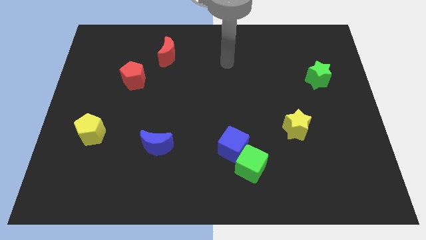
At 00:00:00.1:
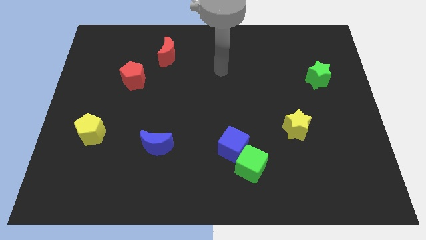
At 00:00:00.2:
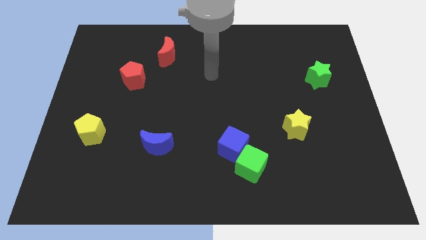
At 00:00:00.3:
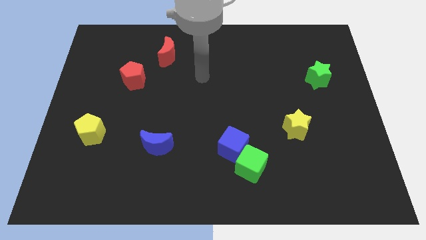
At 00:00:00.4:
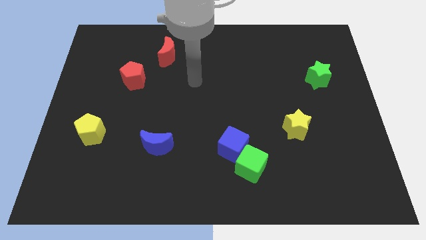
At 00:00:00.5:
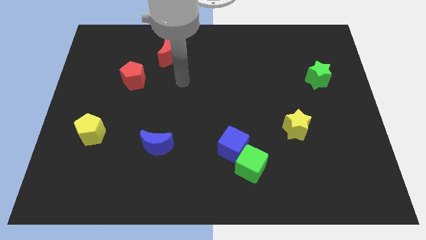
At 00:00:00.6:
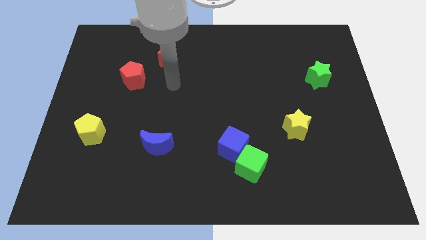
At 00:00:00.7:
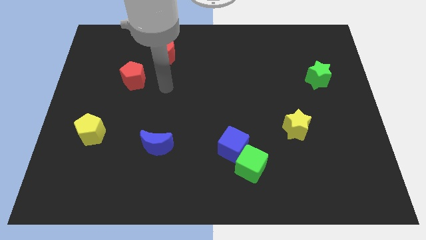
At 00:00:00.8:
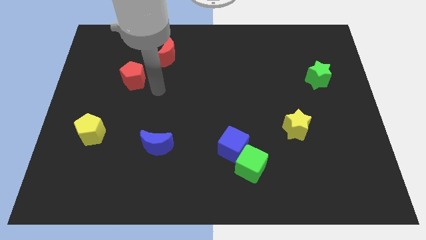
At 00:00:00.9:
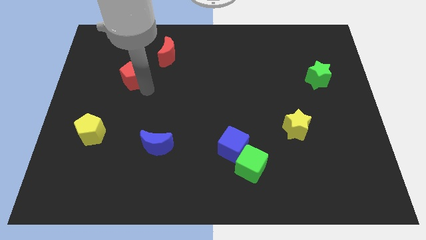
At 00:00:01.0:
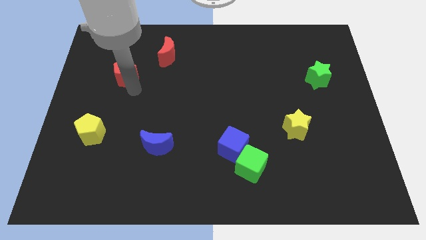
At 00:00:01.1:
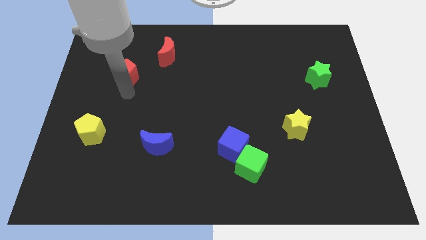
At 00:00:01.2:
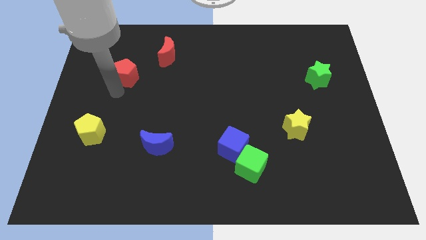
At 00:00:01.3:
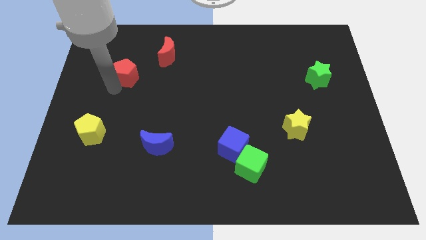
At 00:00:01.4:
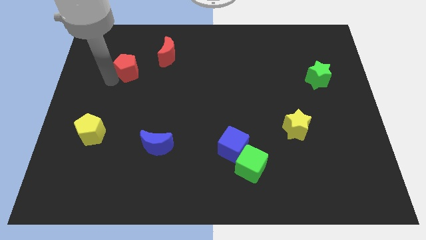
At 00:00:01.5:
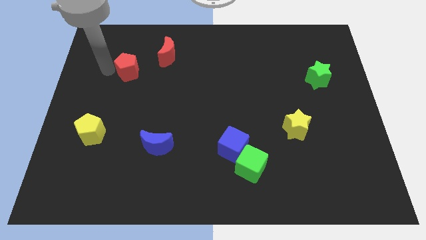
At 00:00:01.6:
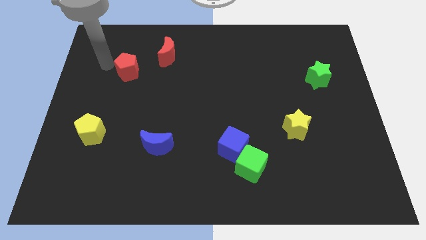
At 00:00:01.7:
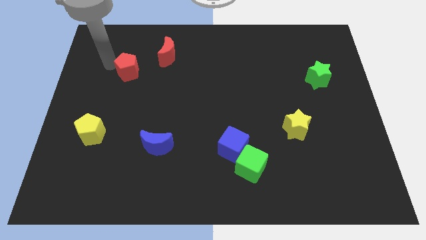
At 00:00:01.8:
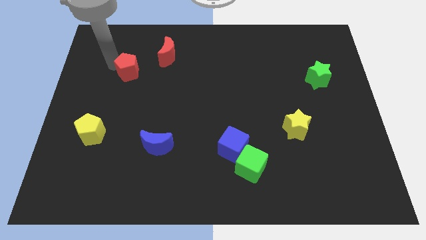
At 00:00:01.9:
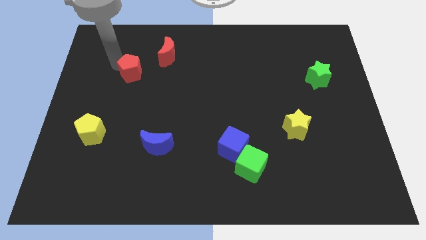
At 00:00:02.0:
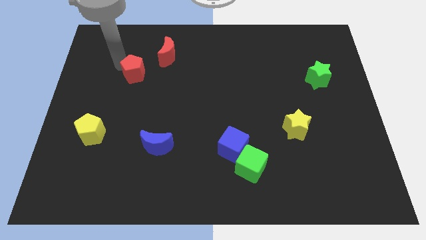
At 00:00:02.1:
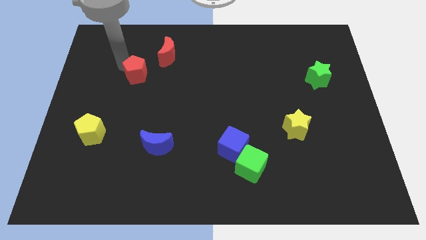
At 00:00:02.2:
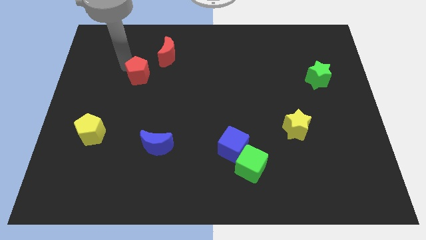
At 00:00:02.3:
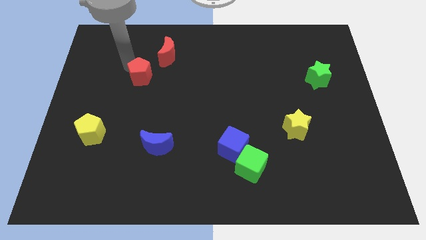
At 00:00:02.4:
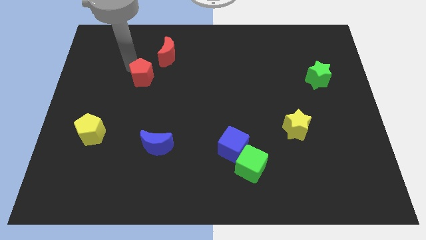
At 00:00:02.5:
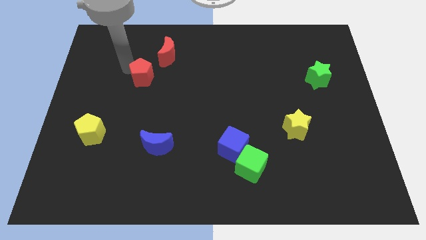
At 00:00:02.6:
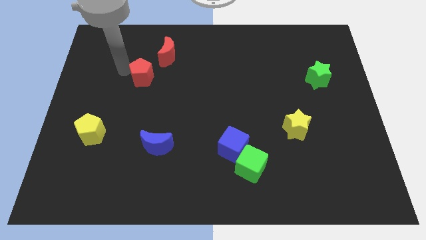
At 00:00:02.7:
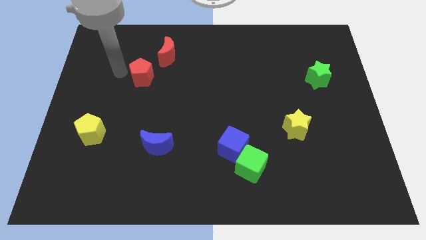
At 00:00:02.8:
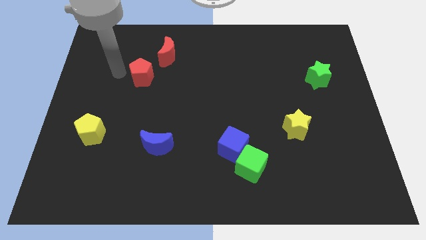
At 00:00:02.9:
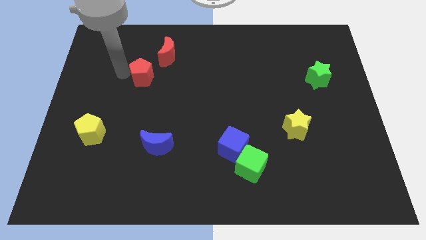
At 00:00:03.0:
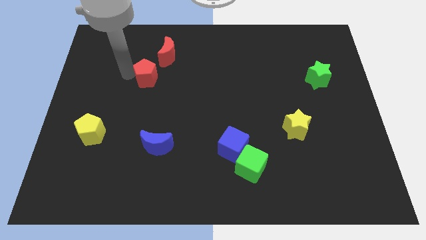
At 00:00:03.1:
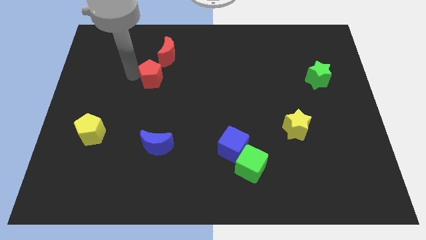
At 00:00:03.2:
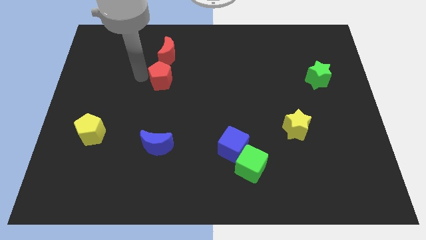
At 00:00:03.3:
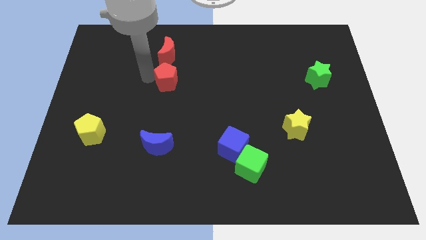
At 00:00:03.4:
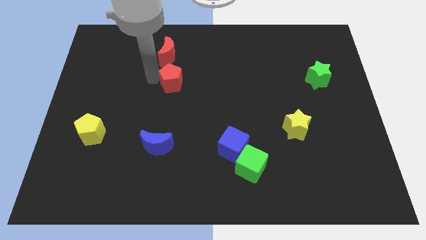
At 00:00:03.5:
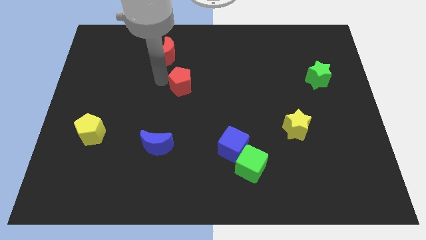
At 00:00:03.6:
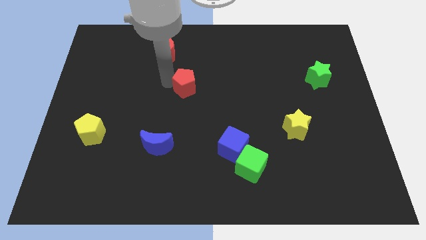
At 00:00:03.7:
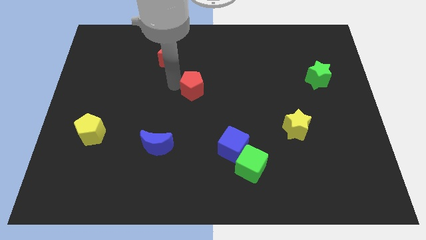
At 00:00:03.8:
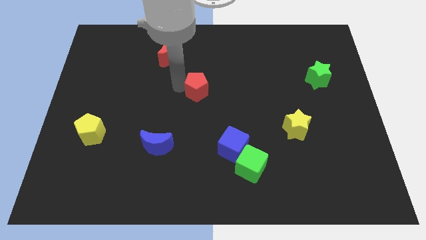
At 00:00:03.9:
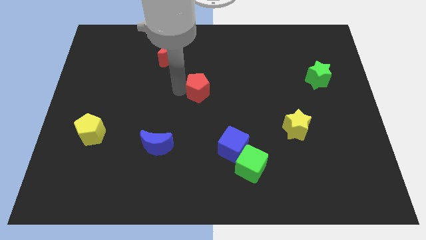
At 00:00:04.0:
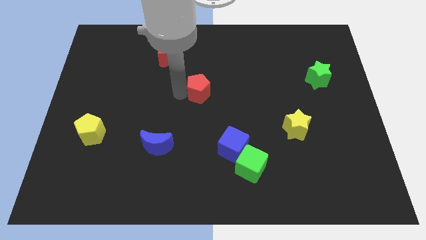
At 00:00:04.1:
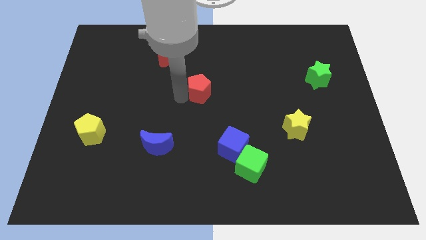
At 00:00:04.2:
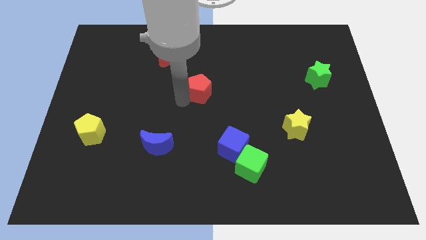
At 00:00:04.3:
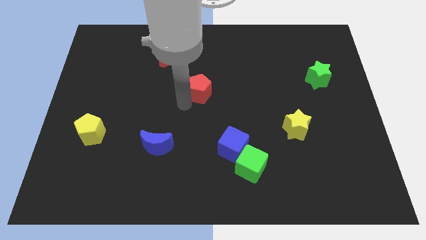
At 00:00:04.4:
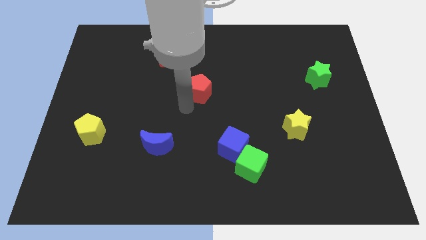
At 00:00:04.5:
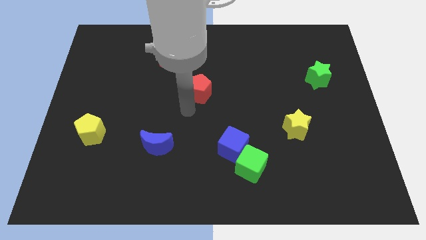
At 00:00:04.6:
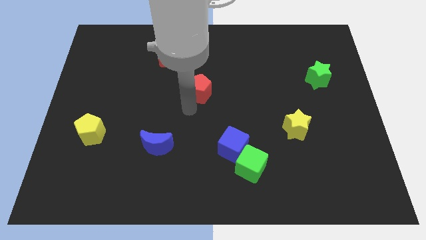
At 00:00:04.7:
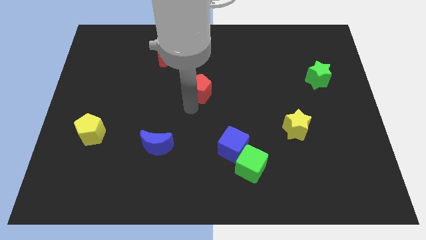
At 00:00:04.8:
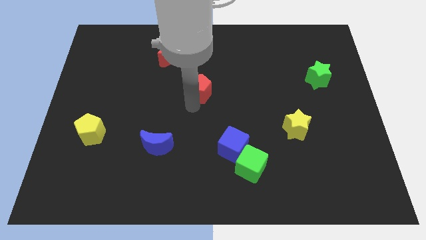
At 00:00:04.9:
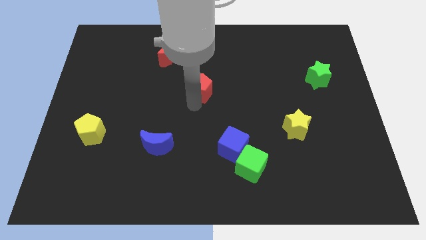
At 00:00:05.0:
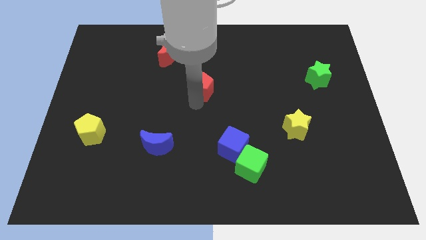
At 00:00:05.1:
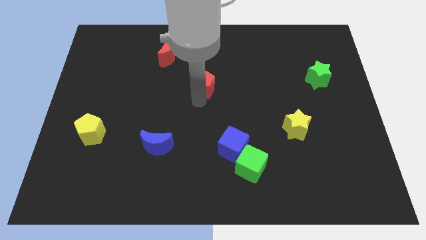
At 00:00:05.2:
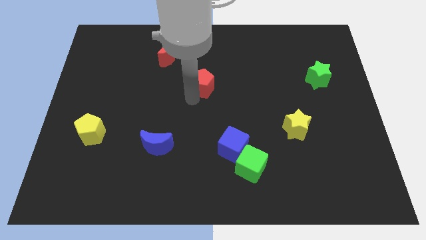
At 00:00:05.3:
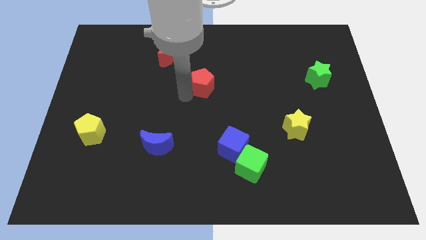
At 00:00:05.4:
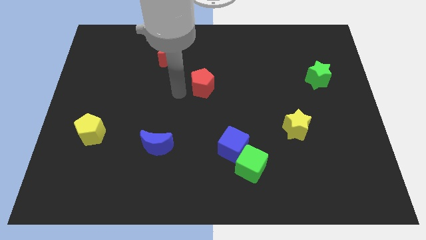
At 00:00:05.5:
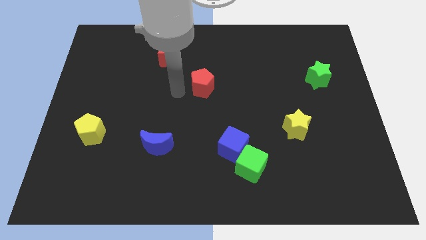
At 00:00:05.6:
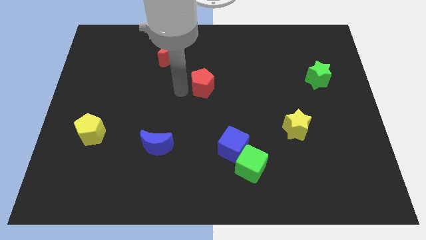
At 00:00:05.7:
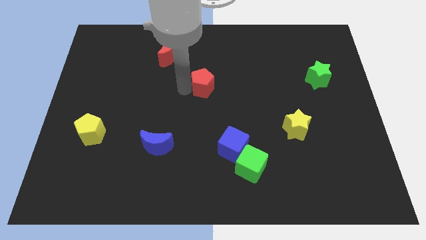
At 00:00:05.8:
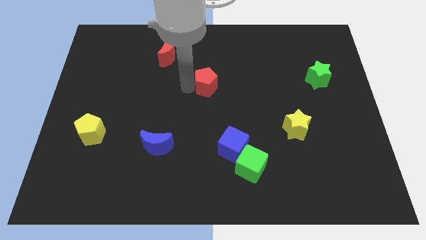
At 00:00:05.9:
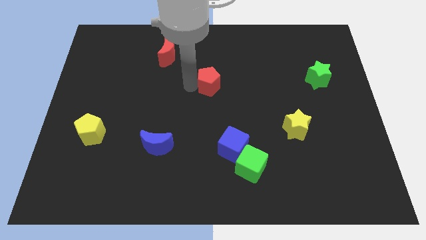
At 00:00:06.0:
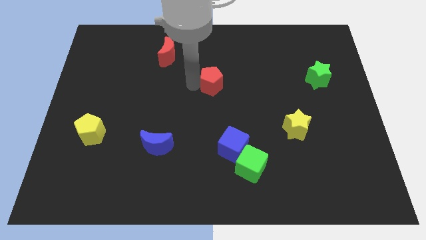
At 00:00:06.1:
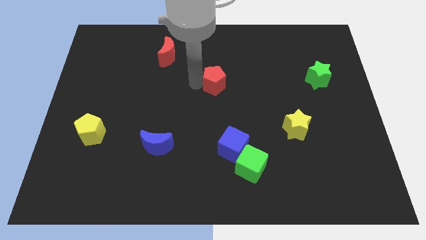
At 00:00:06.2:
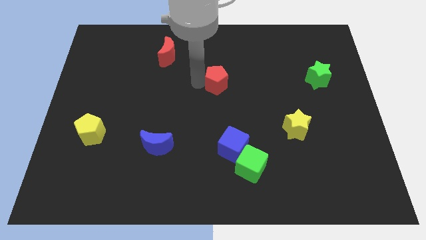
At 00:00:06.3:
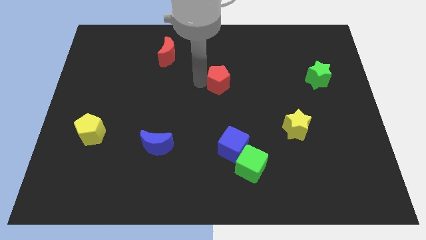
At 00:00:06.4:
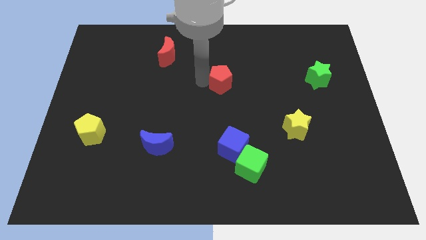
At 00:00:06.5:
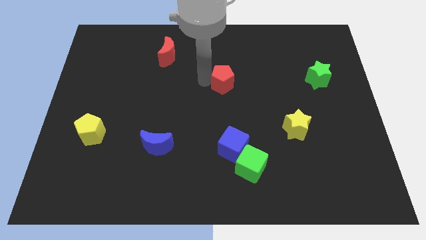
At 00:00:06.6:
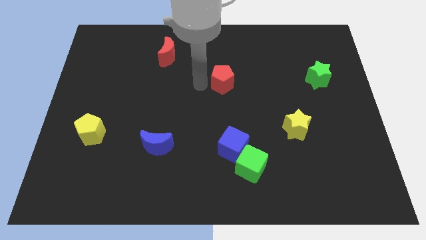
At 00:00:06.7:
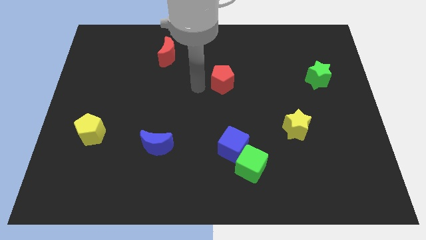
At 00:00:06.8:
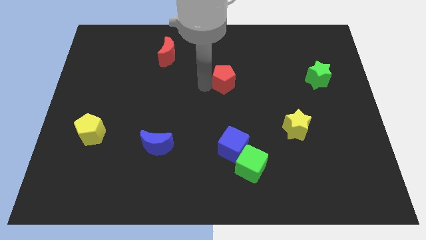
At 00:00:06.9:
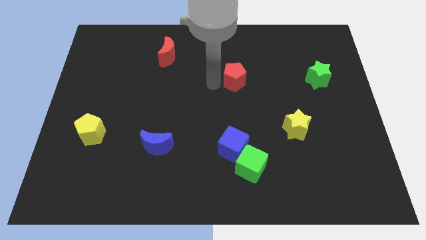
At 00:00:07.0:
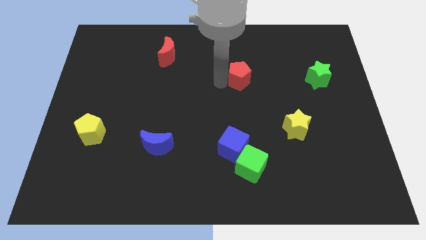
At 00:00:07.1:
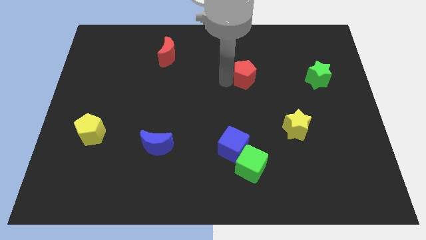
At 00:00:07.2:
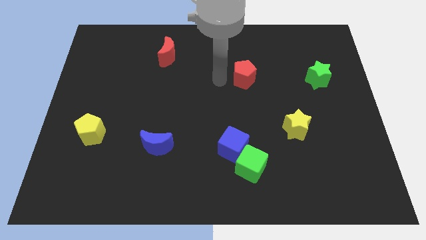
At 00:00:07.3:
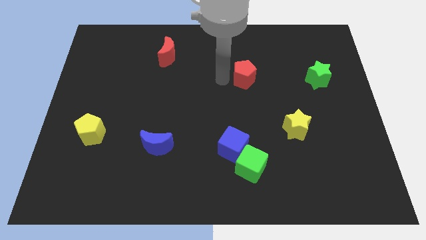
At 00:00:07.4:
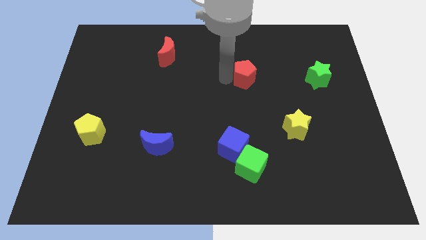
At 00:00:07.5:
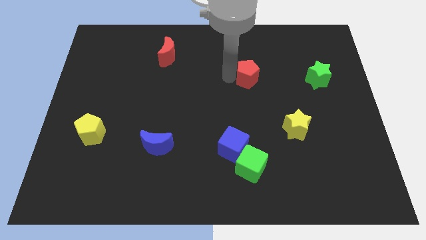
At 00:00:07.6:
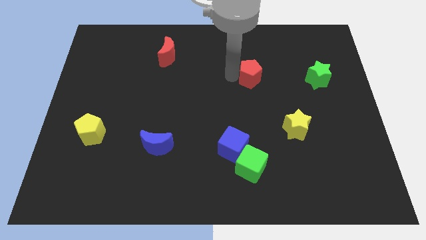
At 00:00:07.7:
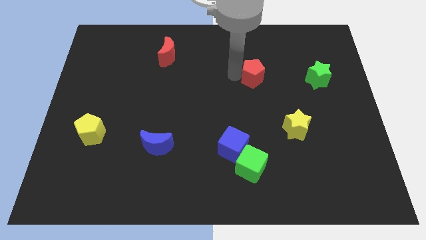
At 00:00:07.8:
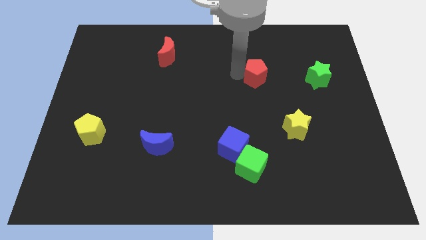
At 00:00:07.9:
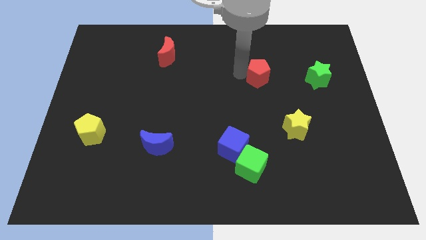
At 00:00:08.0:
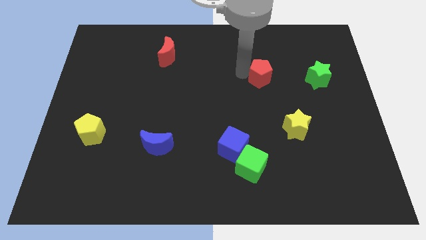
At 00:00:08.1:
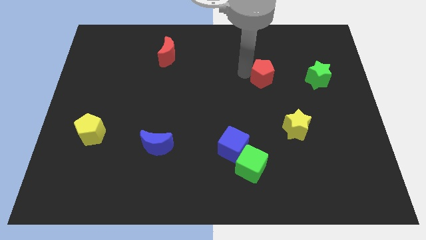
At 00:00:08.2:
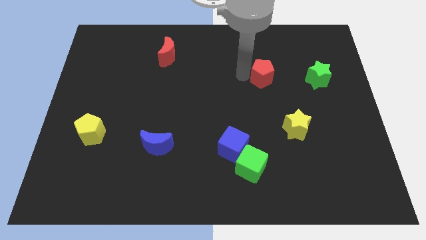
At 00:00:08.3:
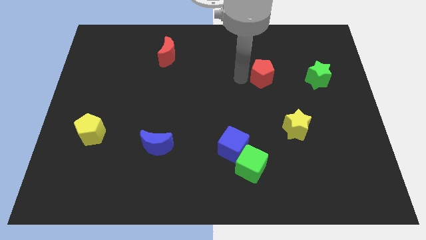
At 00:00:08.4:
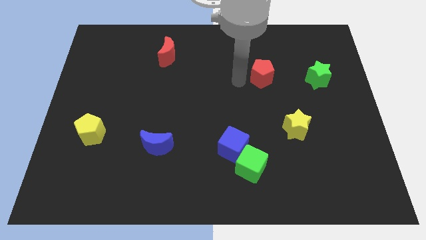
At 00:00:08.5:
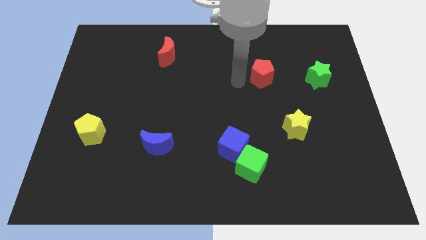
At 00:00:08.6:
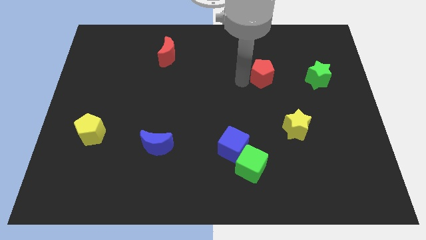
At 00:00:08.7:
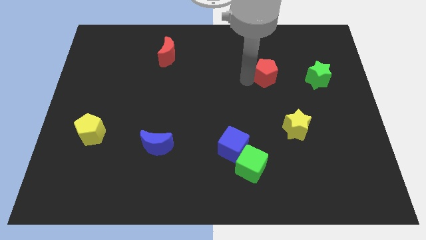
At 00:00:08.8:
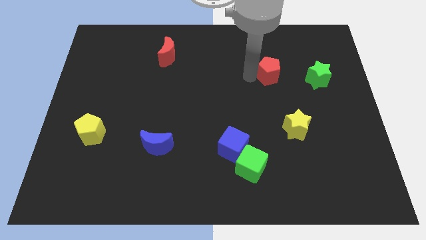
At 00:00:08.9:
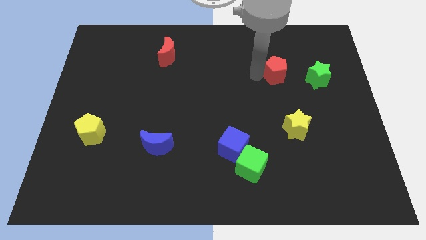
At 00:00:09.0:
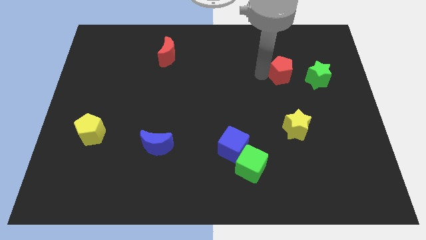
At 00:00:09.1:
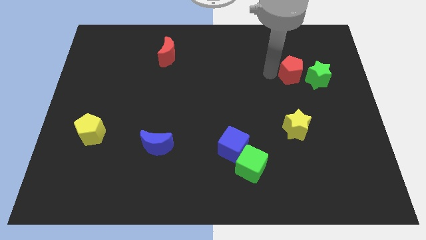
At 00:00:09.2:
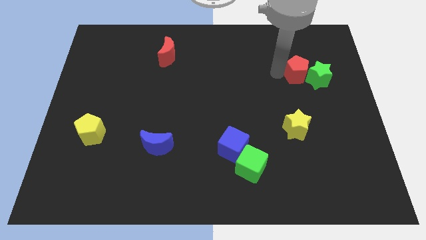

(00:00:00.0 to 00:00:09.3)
move the red pentagon close to the green star
